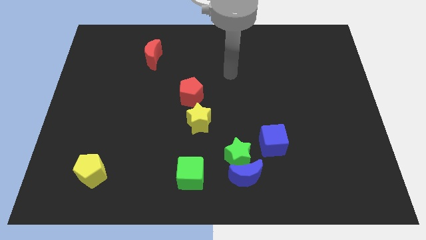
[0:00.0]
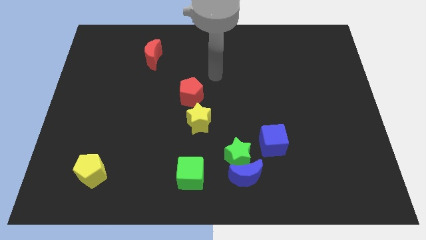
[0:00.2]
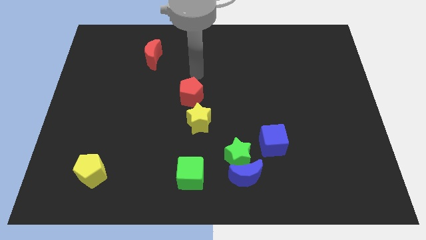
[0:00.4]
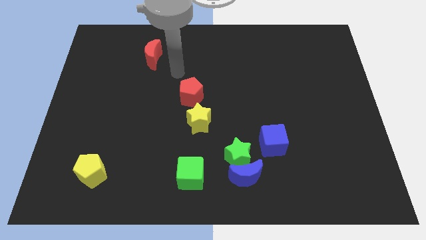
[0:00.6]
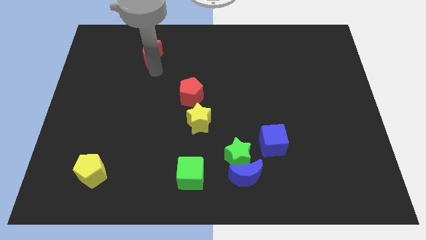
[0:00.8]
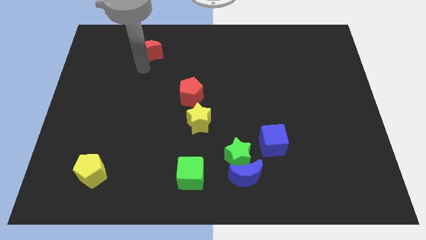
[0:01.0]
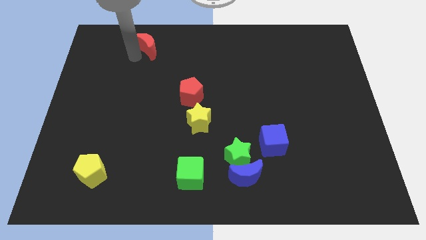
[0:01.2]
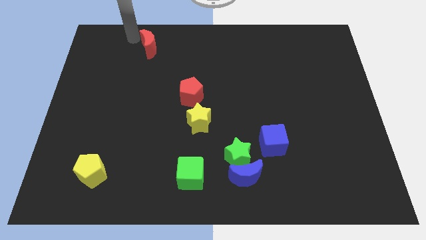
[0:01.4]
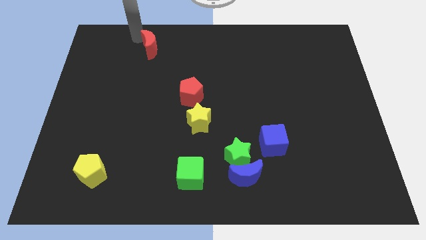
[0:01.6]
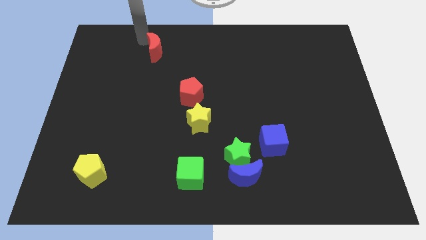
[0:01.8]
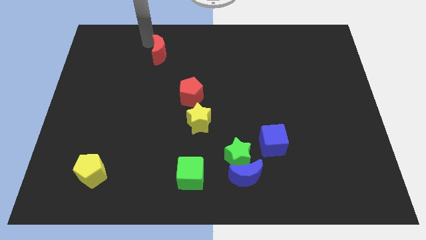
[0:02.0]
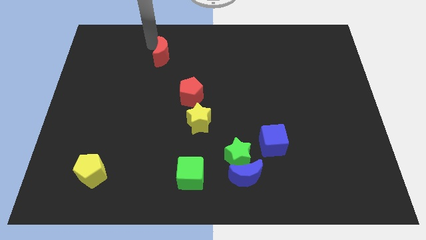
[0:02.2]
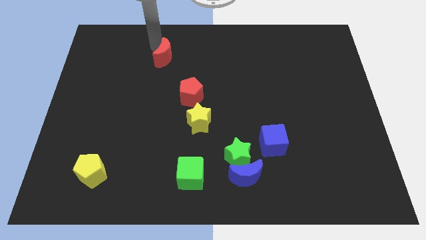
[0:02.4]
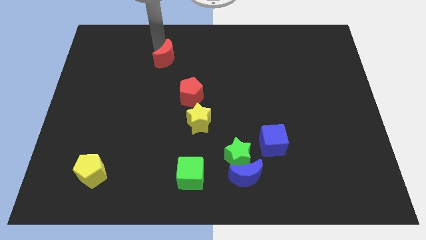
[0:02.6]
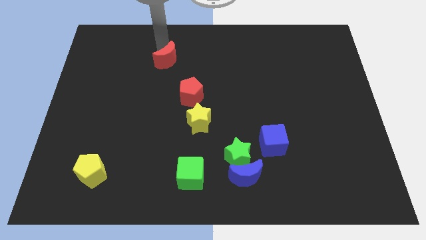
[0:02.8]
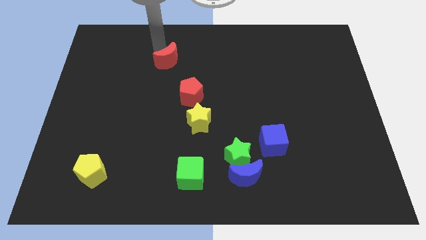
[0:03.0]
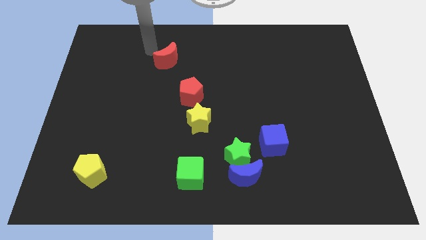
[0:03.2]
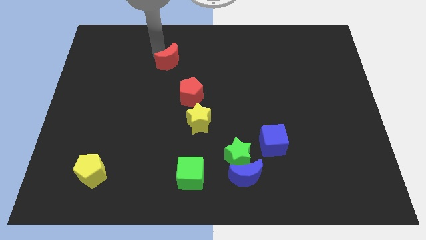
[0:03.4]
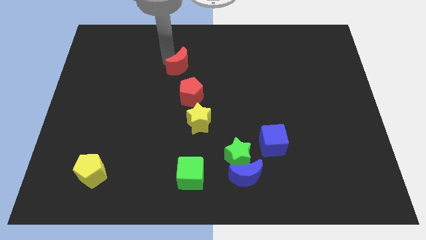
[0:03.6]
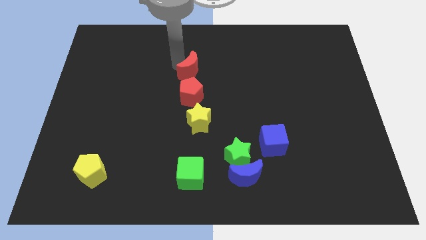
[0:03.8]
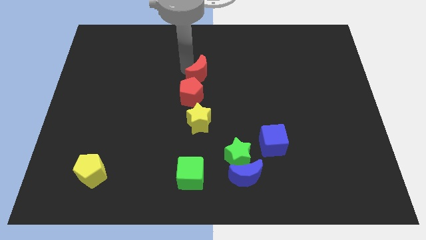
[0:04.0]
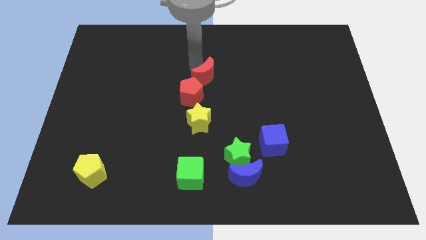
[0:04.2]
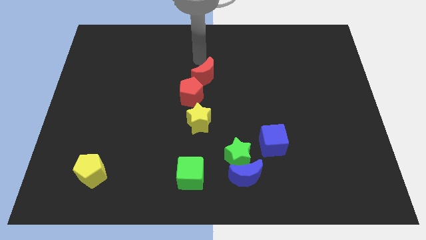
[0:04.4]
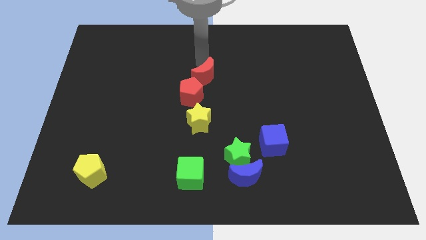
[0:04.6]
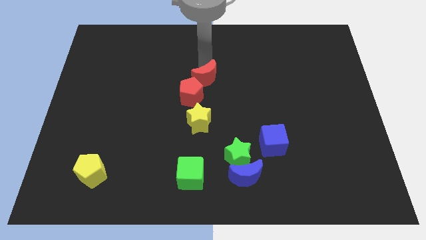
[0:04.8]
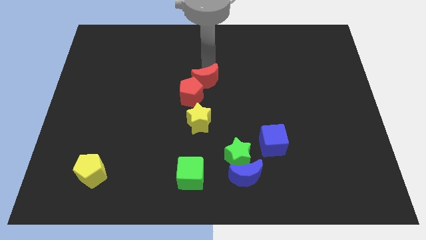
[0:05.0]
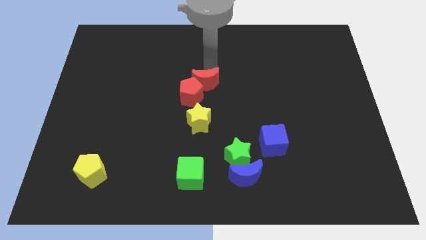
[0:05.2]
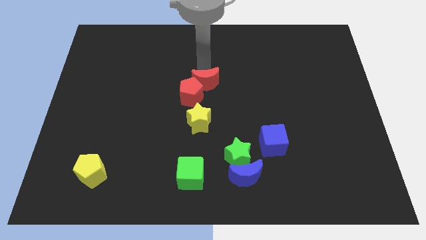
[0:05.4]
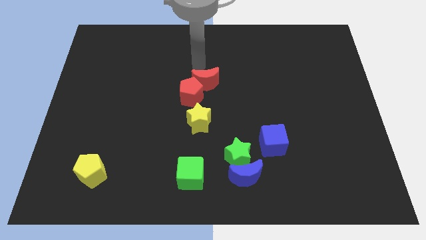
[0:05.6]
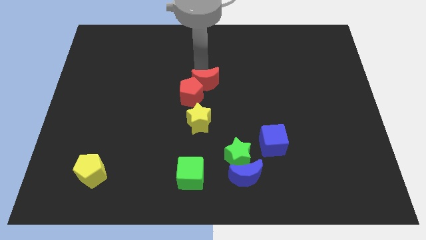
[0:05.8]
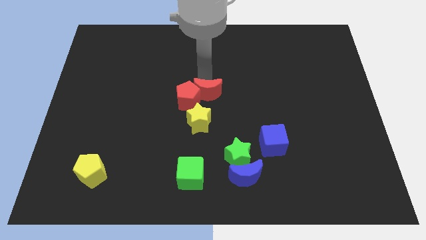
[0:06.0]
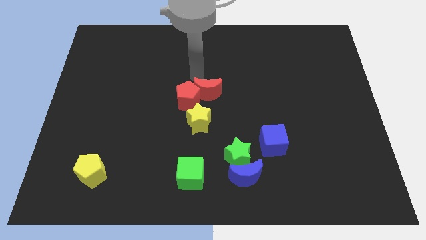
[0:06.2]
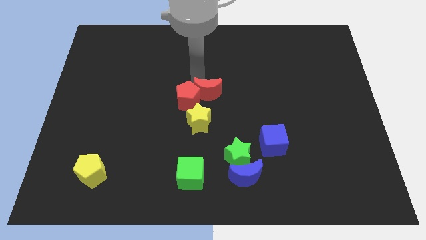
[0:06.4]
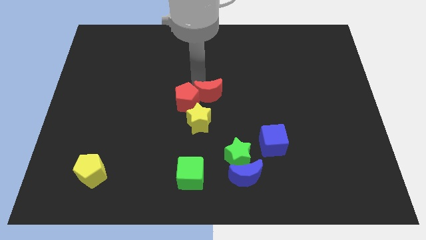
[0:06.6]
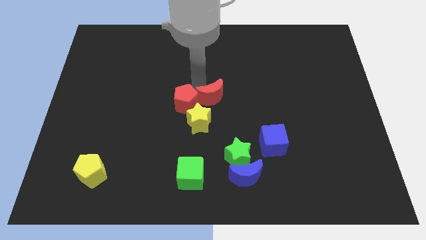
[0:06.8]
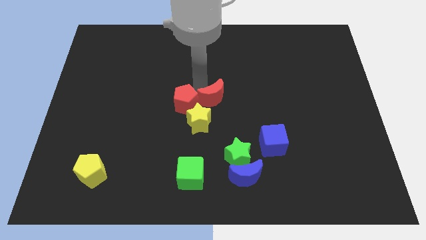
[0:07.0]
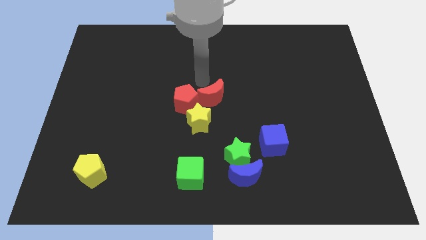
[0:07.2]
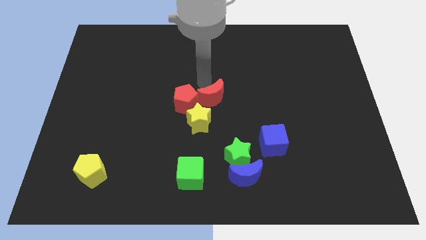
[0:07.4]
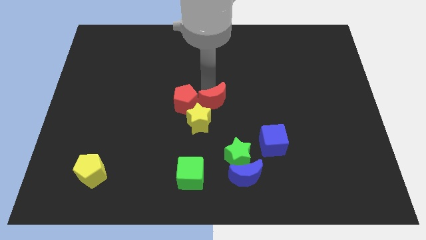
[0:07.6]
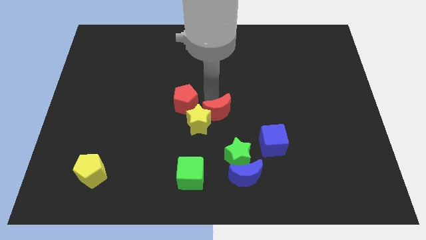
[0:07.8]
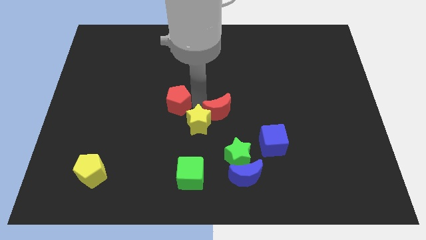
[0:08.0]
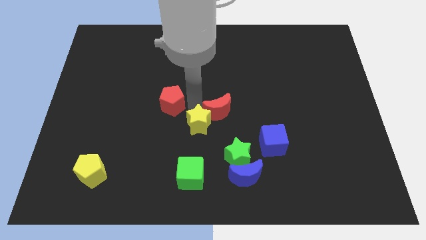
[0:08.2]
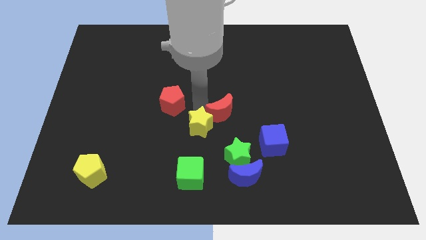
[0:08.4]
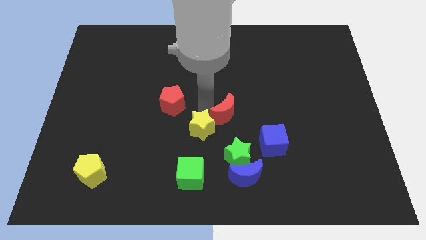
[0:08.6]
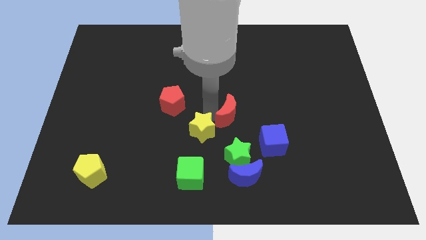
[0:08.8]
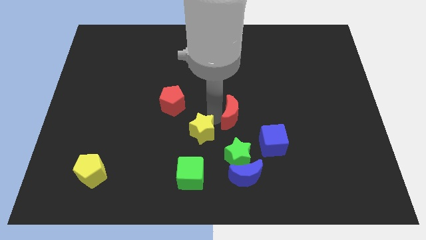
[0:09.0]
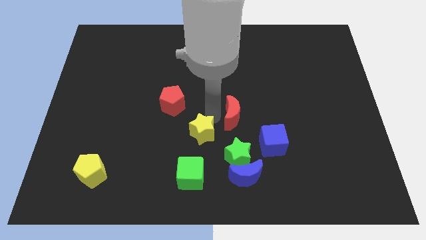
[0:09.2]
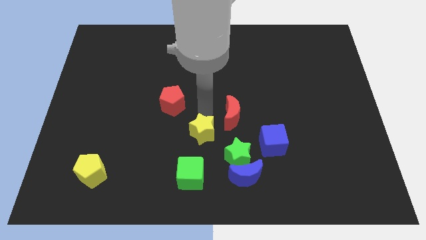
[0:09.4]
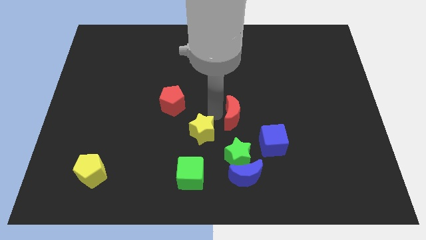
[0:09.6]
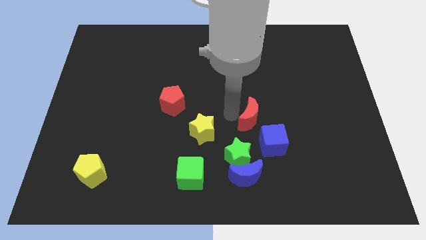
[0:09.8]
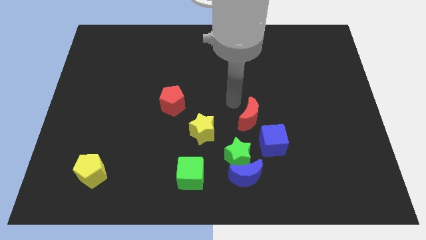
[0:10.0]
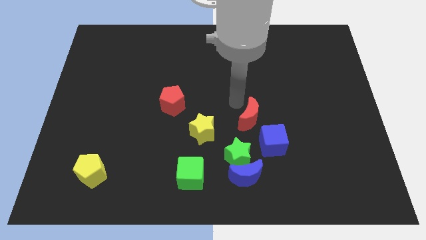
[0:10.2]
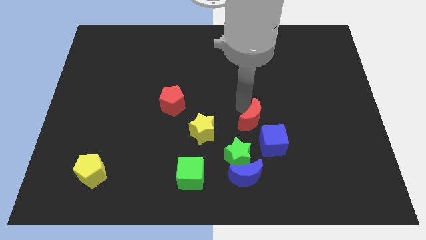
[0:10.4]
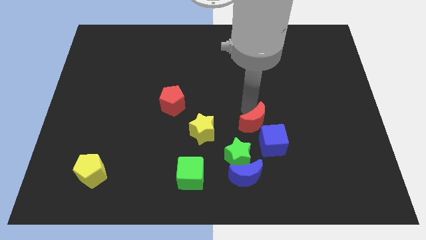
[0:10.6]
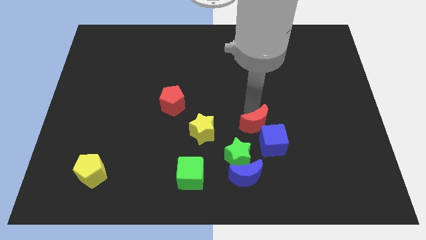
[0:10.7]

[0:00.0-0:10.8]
move the red moon to the blue cube

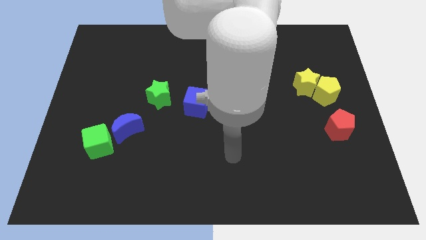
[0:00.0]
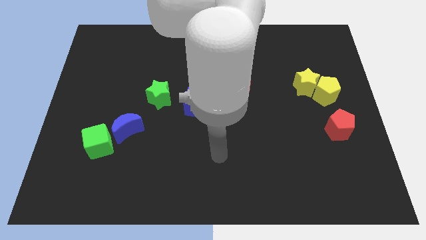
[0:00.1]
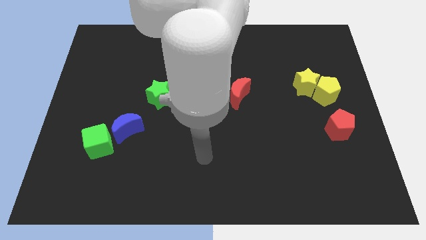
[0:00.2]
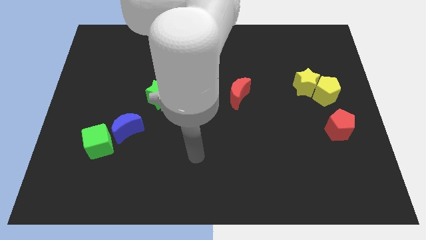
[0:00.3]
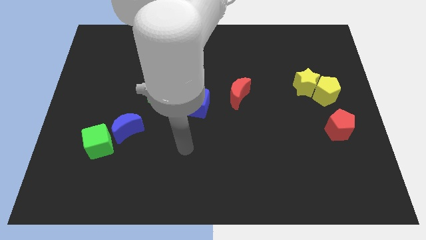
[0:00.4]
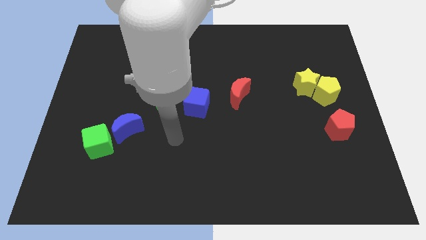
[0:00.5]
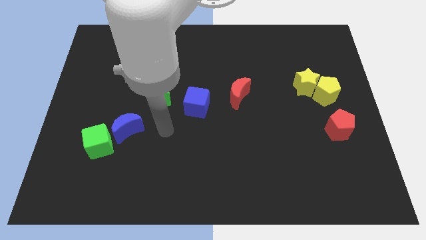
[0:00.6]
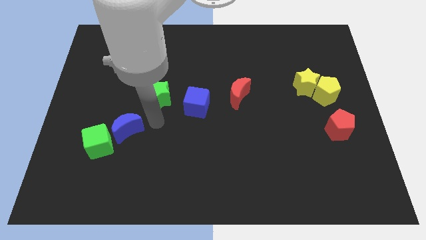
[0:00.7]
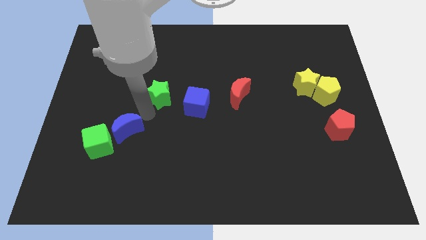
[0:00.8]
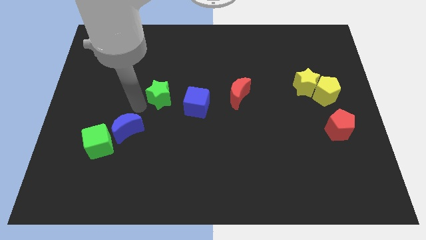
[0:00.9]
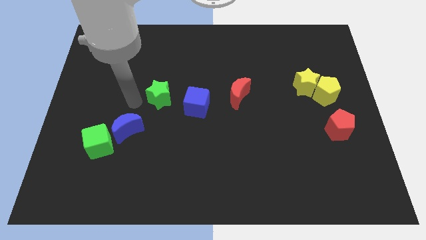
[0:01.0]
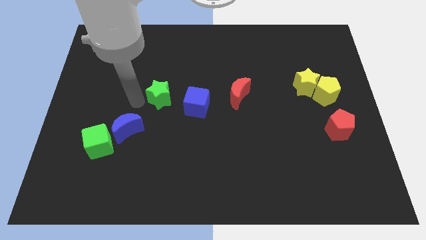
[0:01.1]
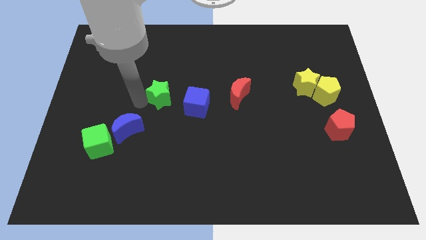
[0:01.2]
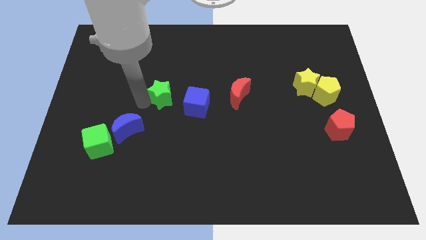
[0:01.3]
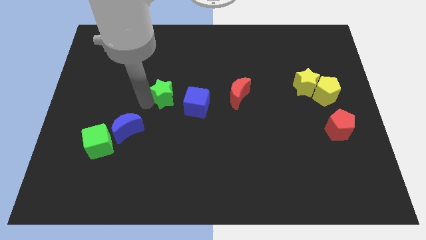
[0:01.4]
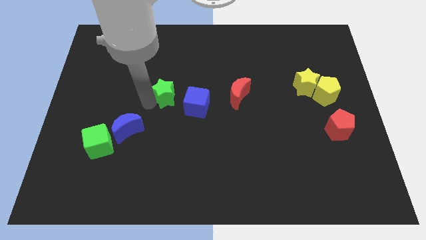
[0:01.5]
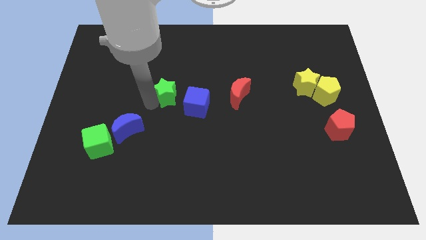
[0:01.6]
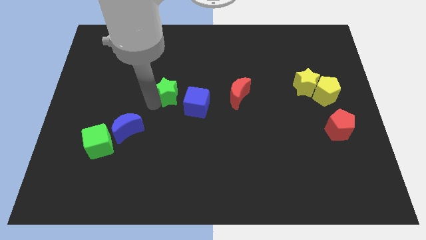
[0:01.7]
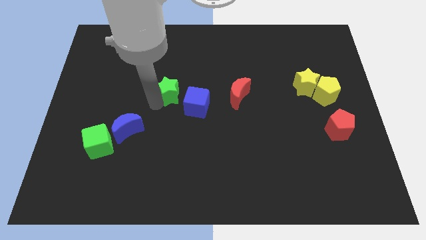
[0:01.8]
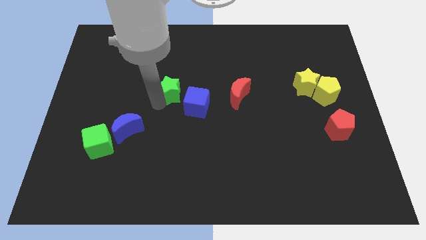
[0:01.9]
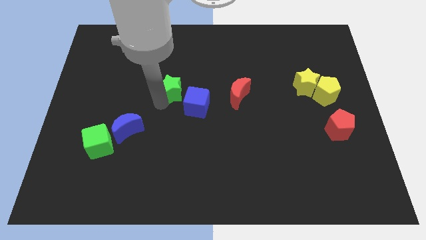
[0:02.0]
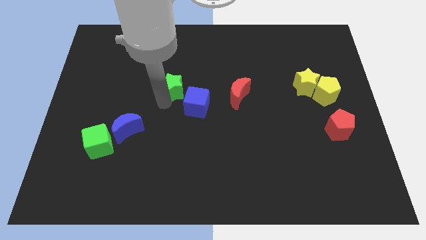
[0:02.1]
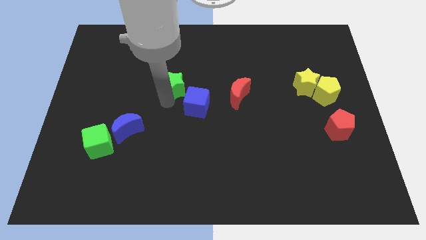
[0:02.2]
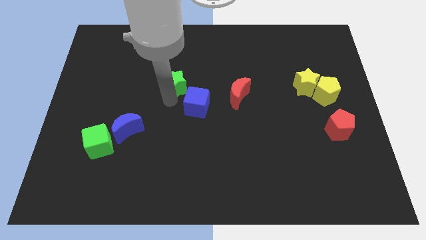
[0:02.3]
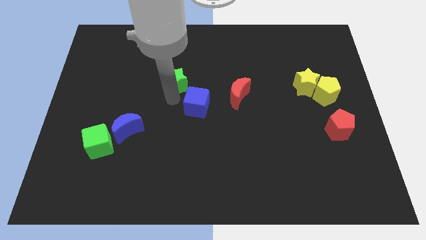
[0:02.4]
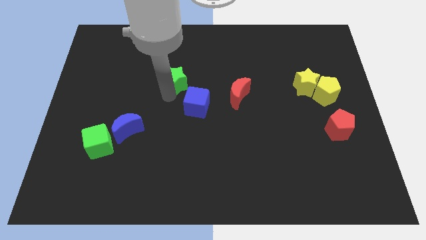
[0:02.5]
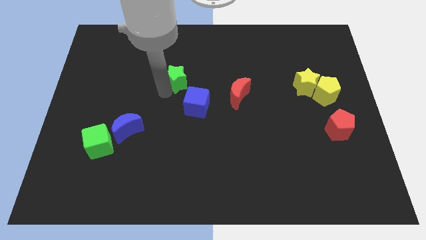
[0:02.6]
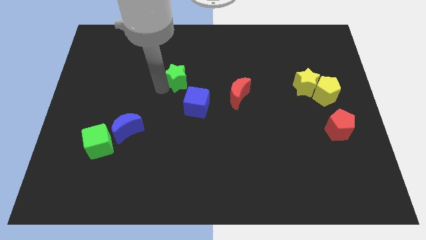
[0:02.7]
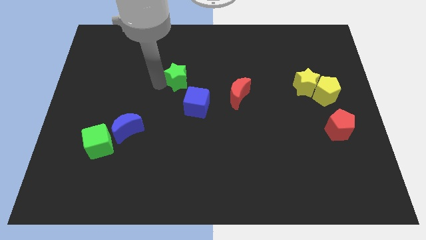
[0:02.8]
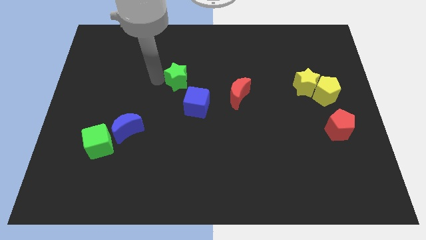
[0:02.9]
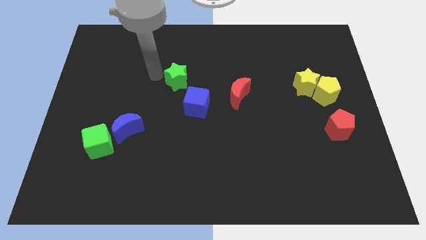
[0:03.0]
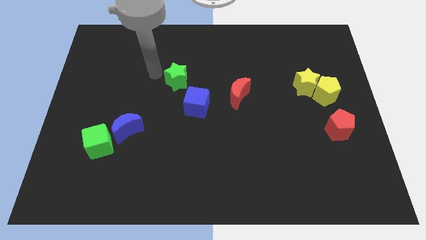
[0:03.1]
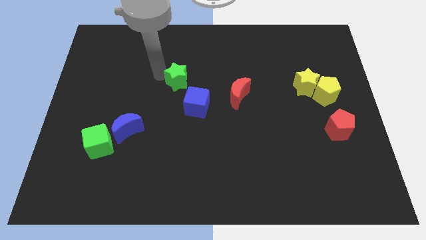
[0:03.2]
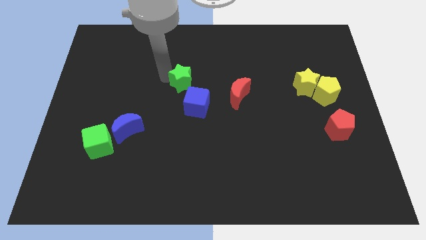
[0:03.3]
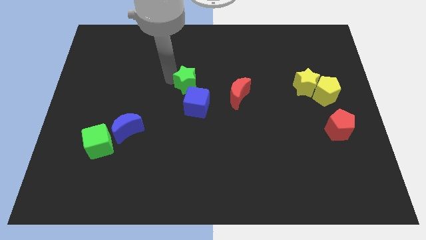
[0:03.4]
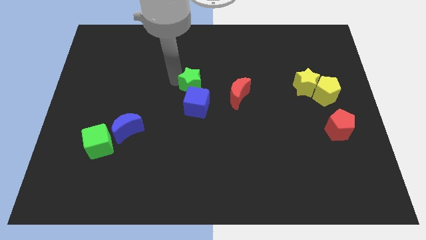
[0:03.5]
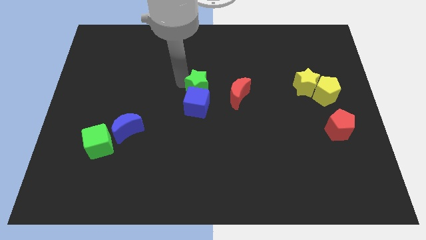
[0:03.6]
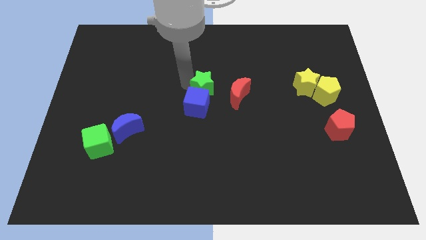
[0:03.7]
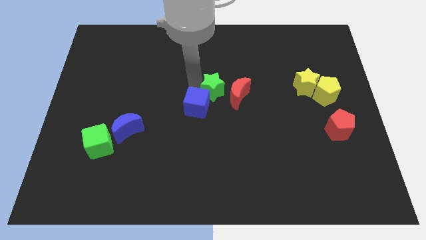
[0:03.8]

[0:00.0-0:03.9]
push the green star close to the red moon
